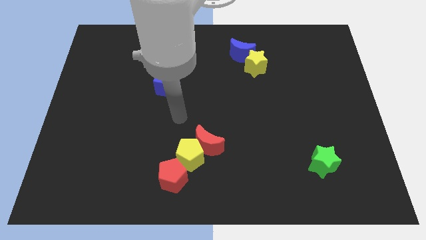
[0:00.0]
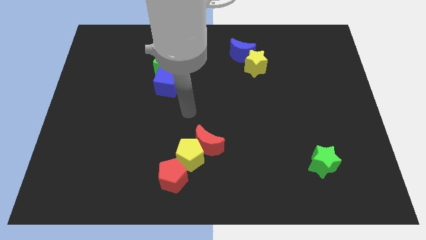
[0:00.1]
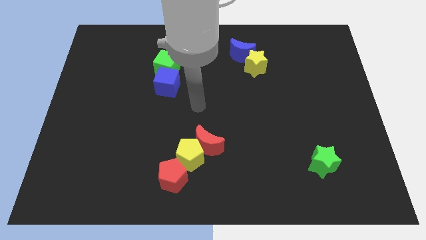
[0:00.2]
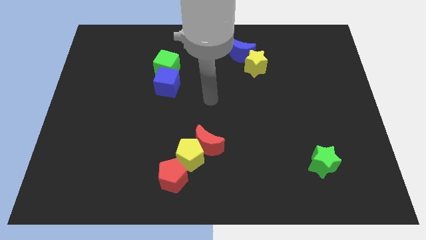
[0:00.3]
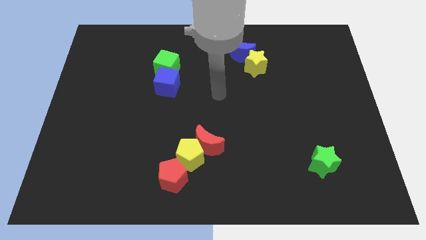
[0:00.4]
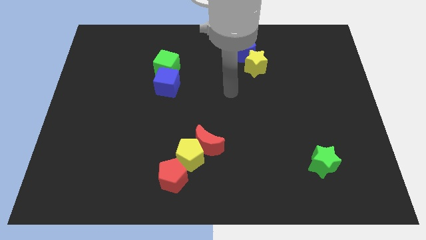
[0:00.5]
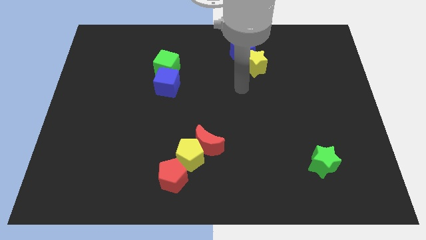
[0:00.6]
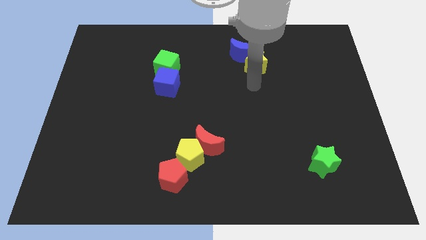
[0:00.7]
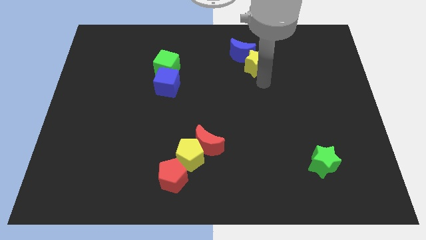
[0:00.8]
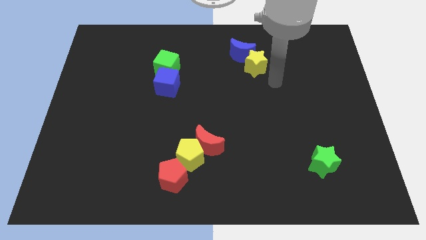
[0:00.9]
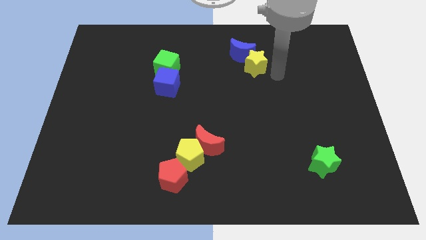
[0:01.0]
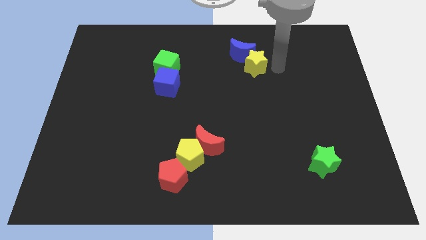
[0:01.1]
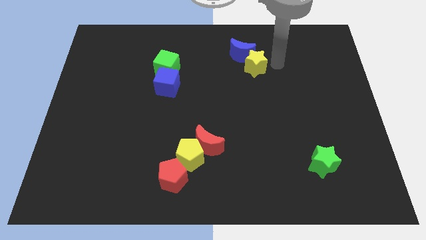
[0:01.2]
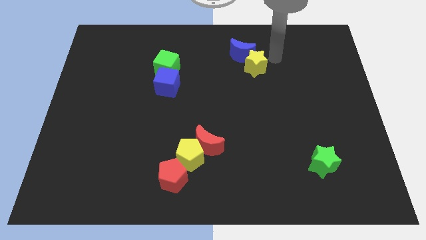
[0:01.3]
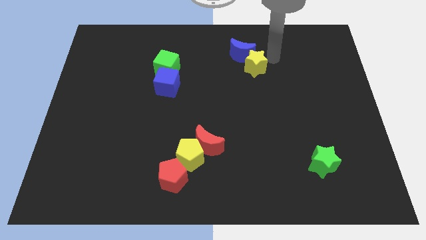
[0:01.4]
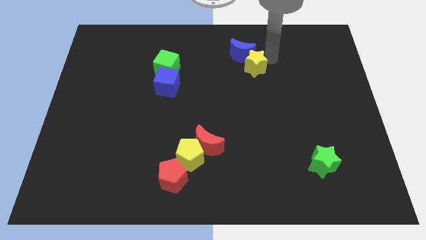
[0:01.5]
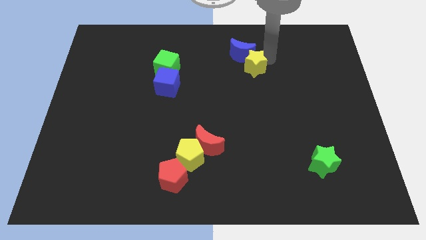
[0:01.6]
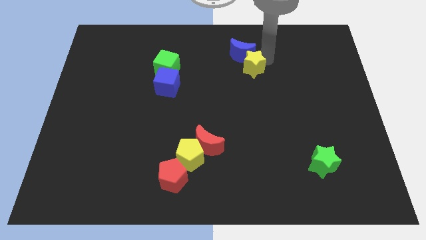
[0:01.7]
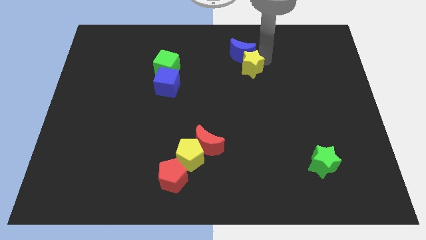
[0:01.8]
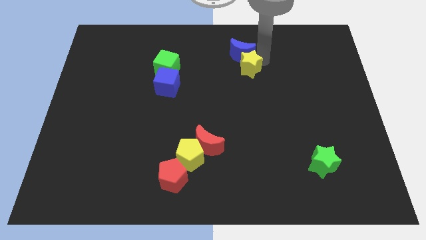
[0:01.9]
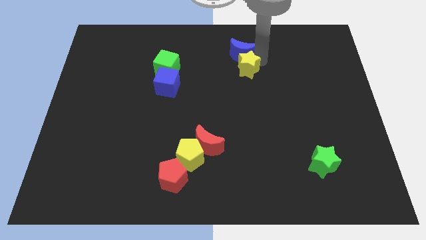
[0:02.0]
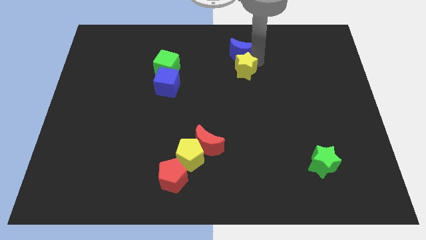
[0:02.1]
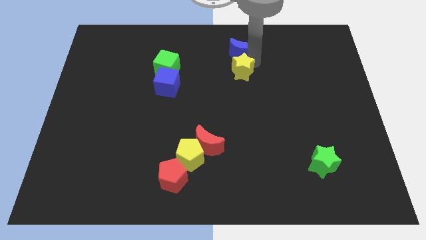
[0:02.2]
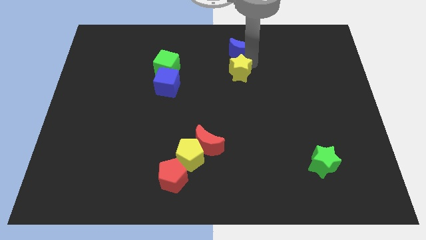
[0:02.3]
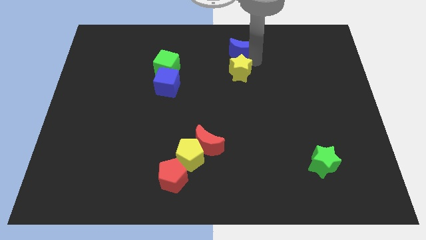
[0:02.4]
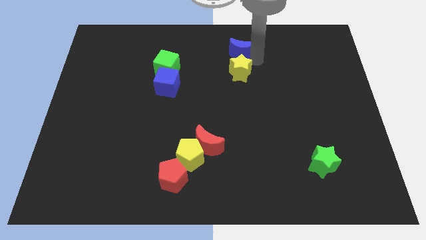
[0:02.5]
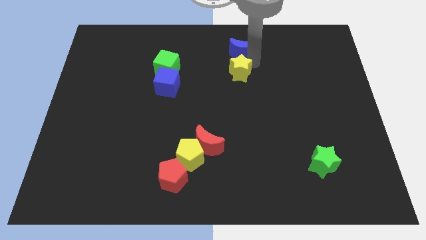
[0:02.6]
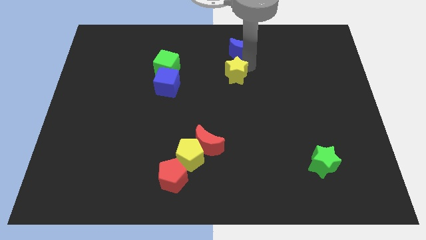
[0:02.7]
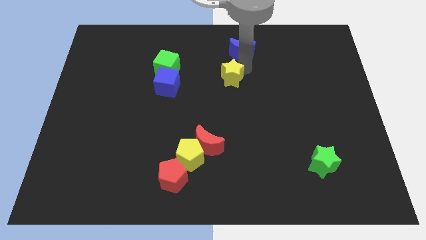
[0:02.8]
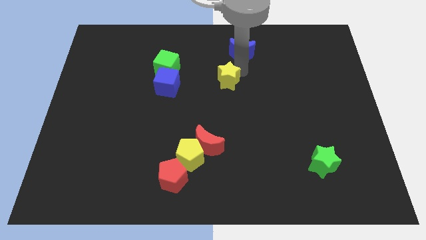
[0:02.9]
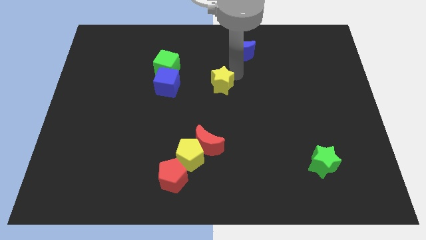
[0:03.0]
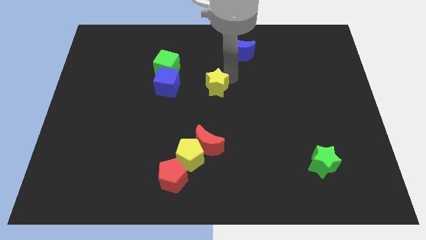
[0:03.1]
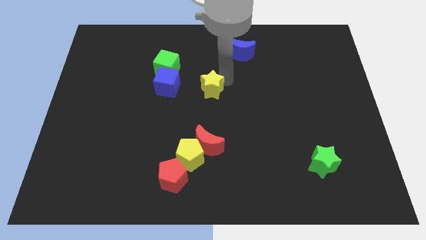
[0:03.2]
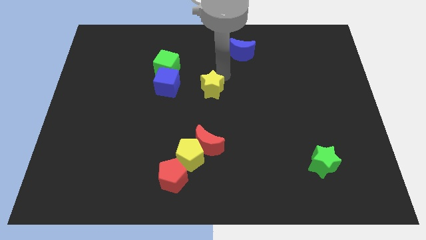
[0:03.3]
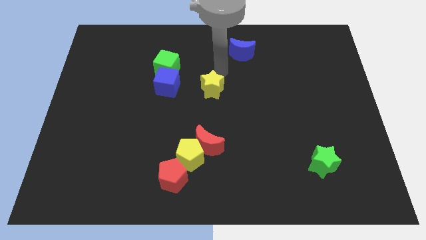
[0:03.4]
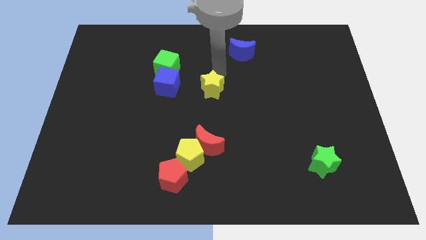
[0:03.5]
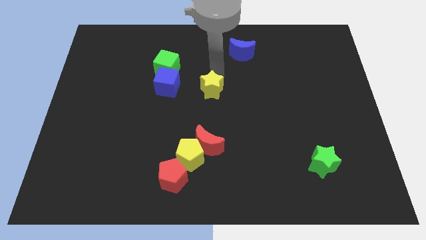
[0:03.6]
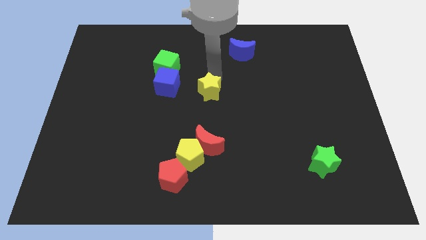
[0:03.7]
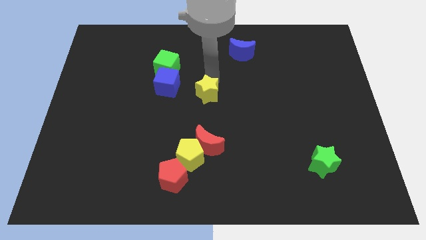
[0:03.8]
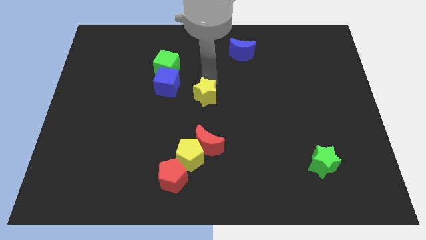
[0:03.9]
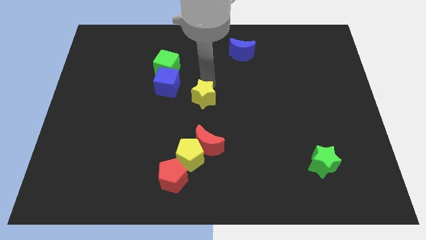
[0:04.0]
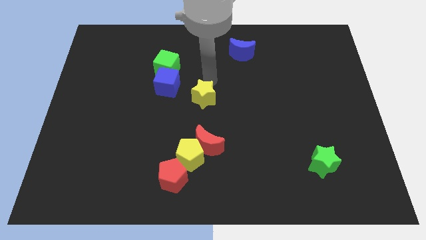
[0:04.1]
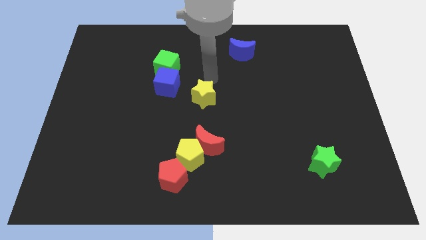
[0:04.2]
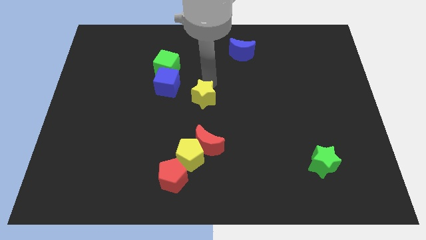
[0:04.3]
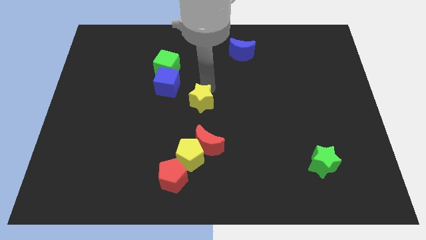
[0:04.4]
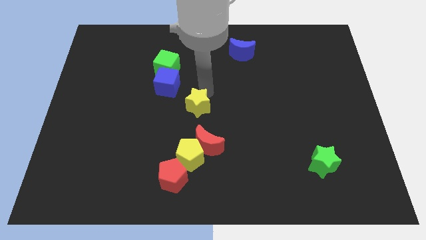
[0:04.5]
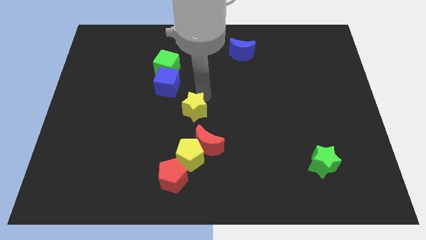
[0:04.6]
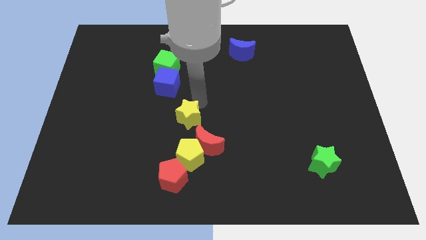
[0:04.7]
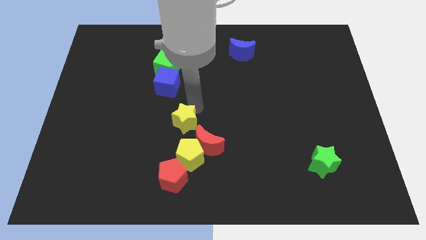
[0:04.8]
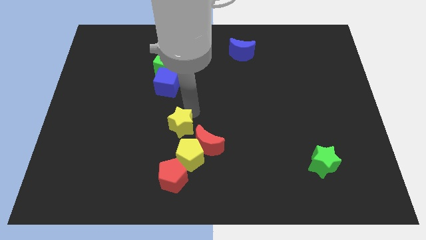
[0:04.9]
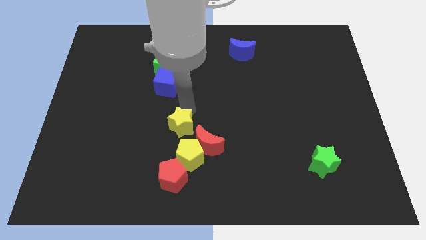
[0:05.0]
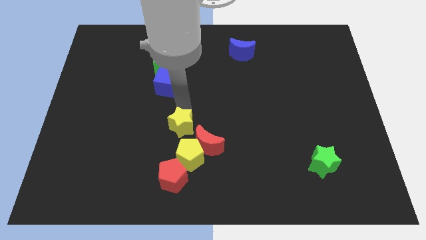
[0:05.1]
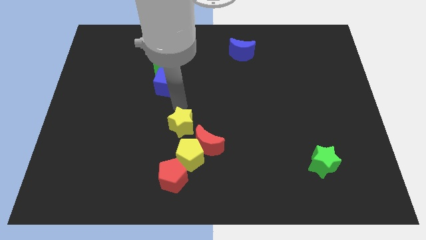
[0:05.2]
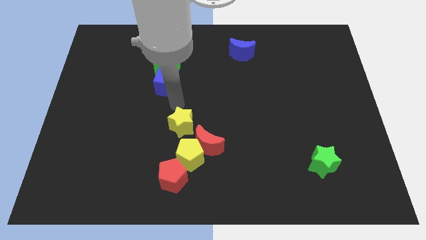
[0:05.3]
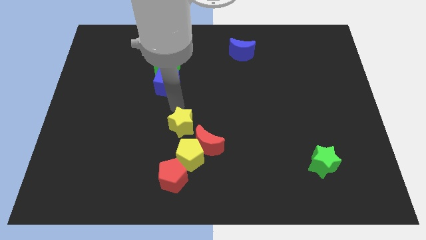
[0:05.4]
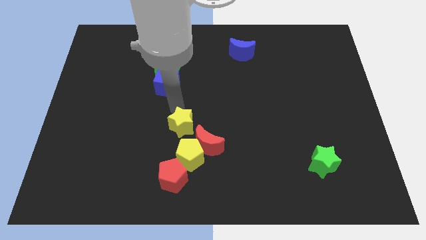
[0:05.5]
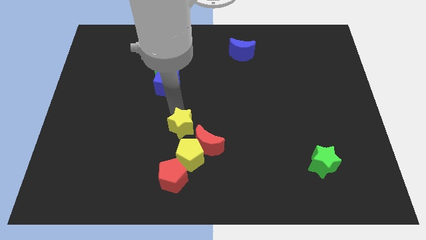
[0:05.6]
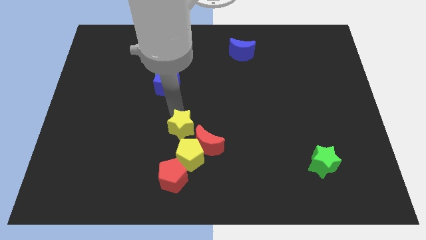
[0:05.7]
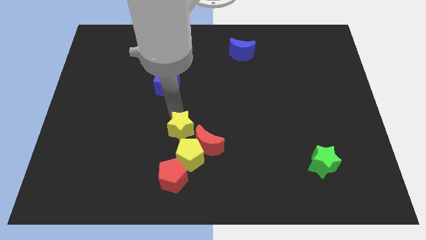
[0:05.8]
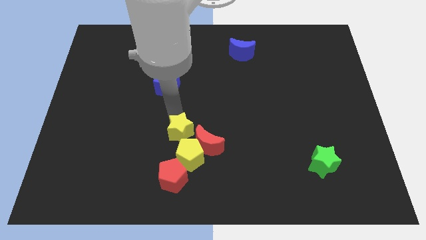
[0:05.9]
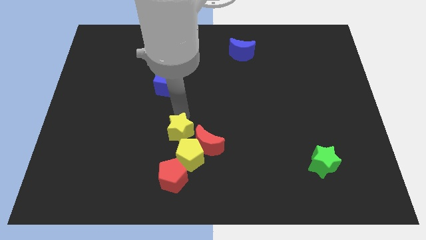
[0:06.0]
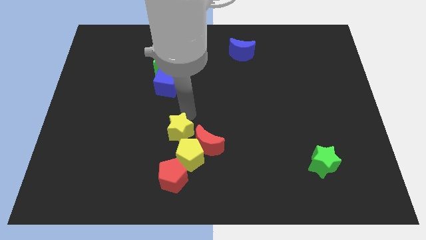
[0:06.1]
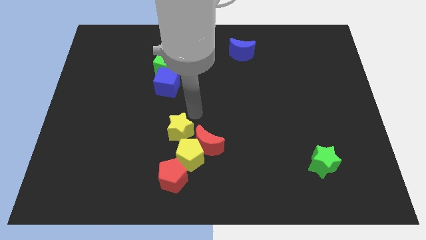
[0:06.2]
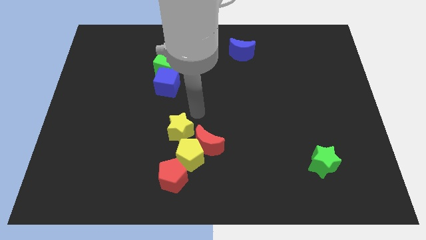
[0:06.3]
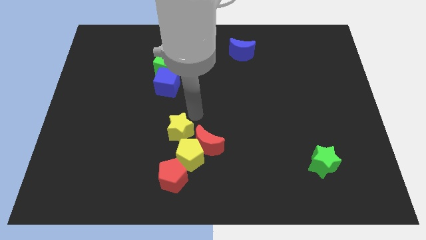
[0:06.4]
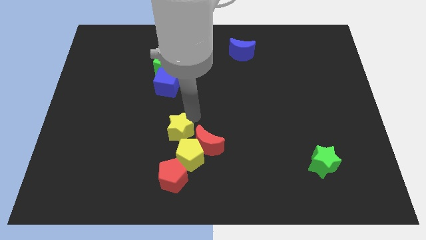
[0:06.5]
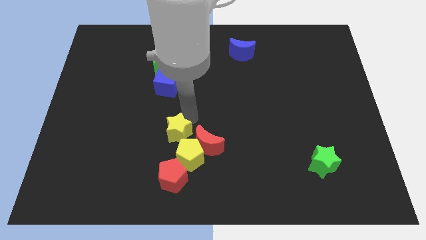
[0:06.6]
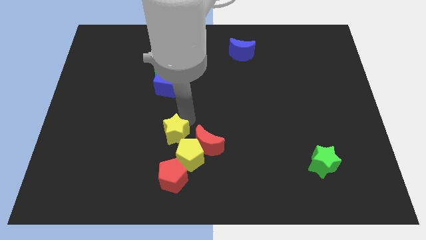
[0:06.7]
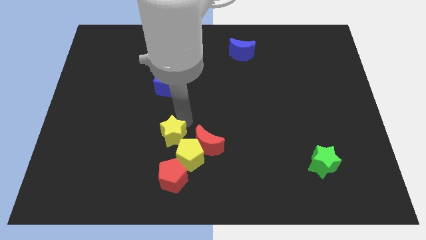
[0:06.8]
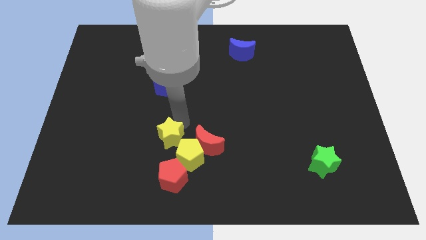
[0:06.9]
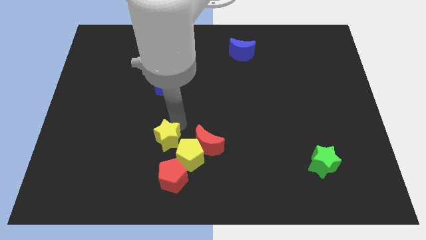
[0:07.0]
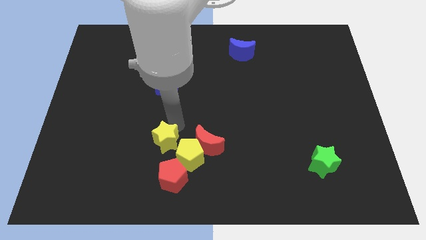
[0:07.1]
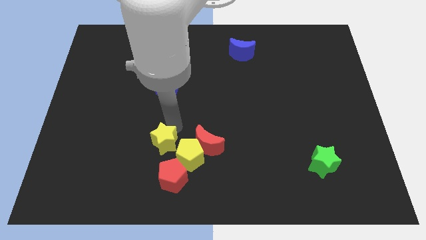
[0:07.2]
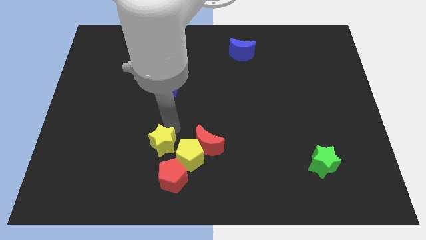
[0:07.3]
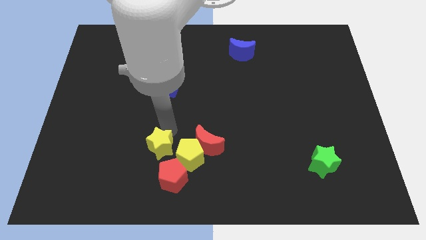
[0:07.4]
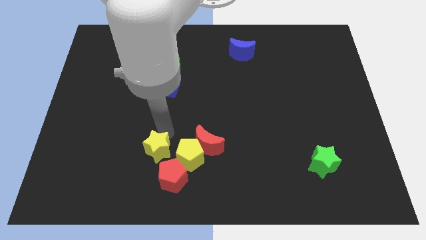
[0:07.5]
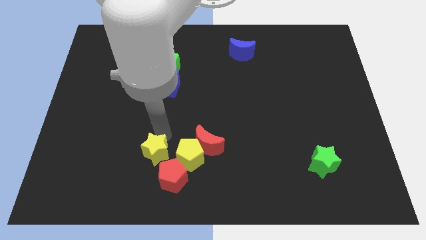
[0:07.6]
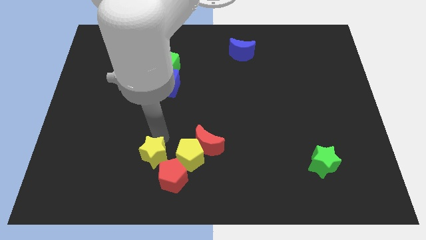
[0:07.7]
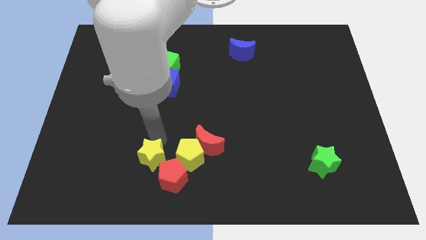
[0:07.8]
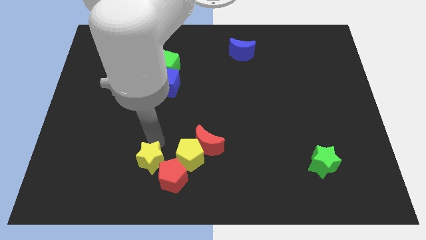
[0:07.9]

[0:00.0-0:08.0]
put the yellow star to the bottom left side of the yellow pentagon
